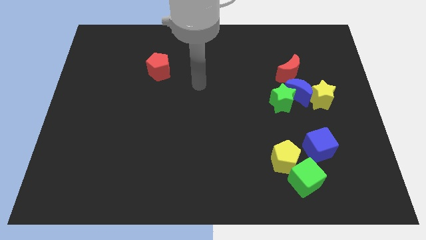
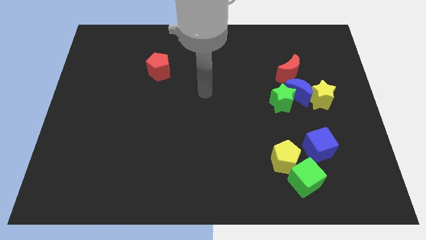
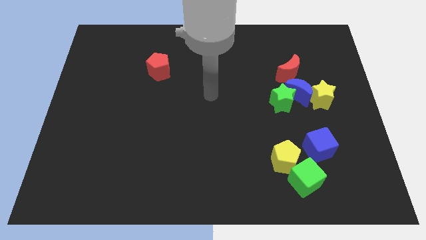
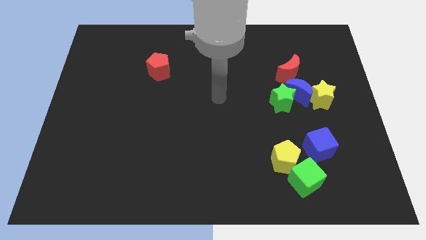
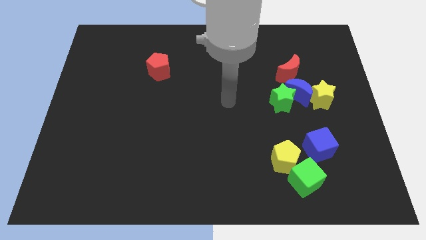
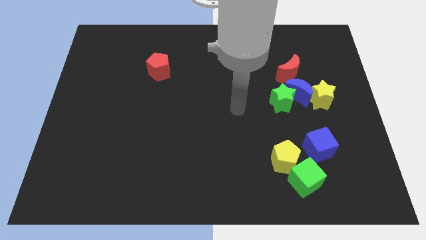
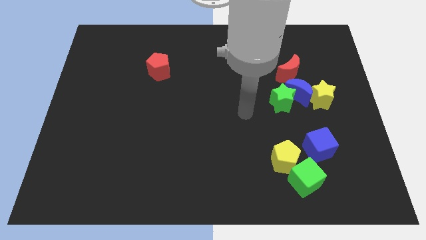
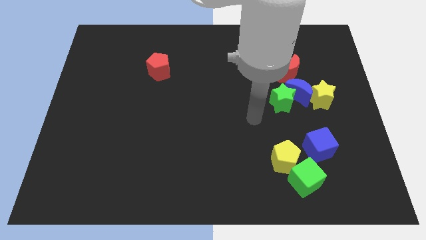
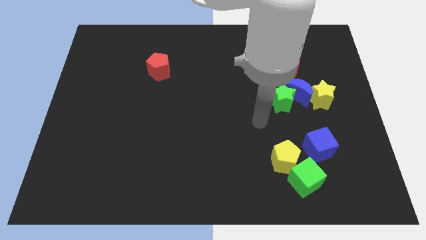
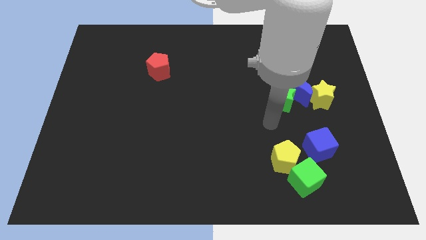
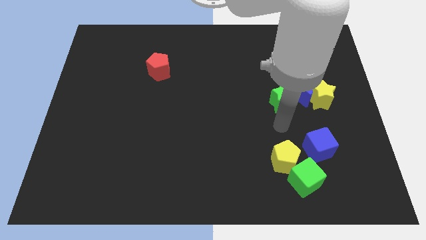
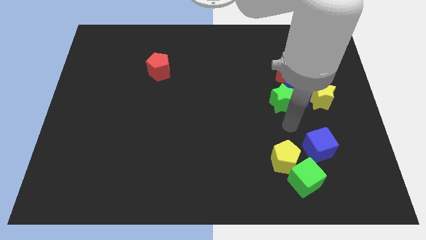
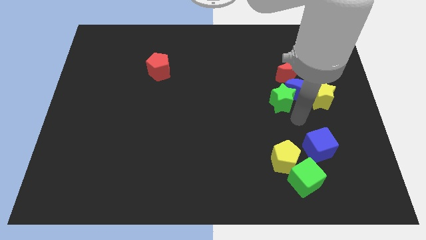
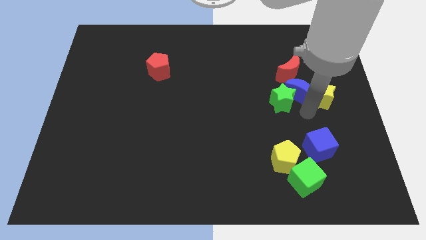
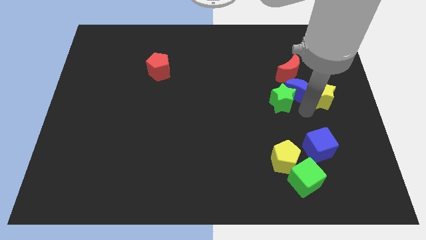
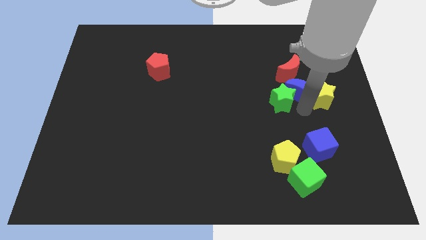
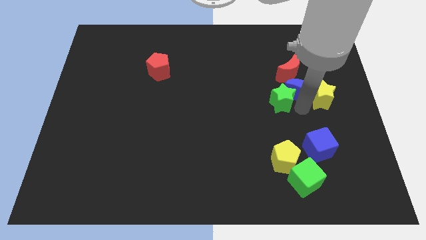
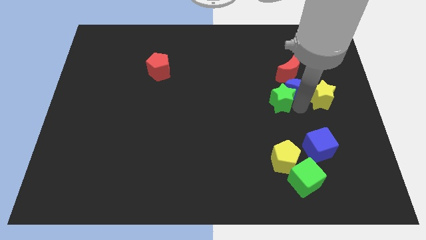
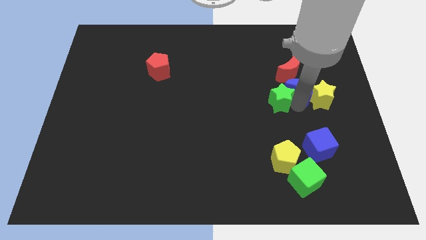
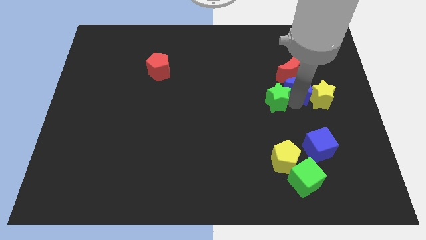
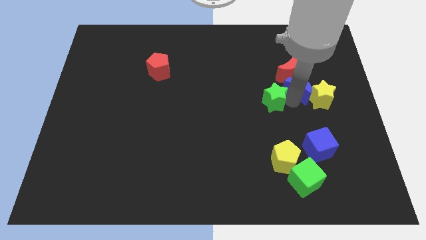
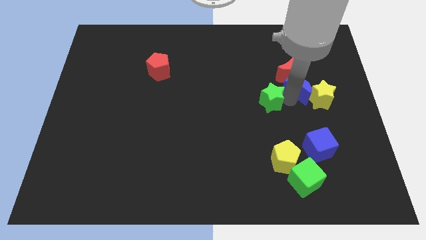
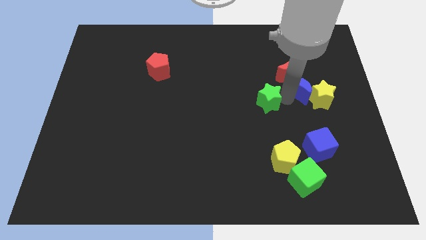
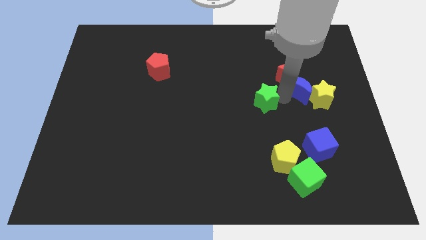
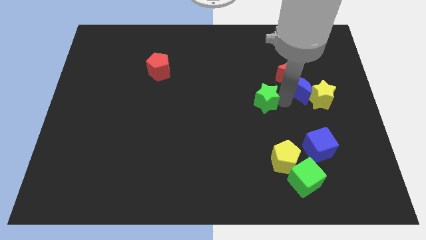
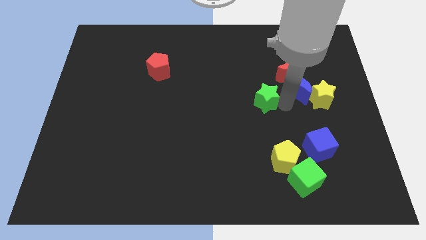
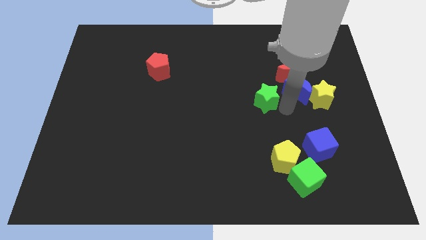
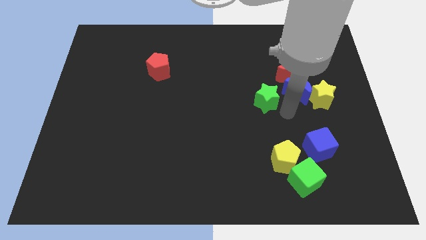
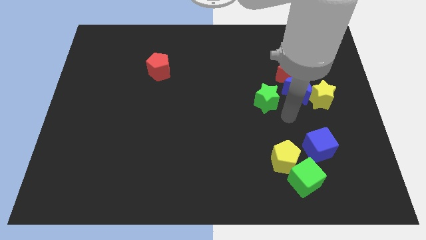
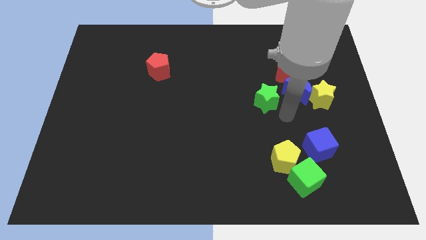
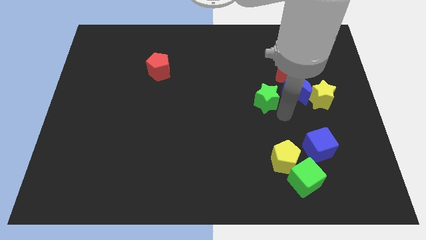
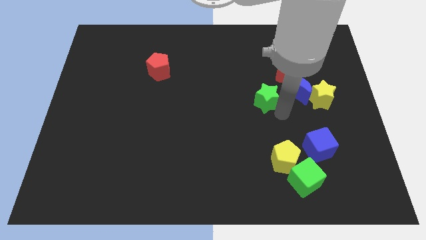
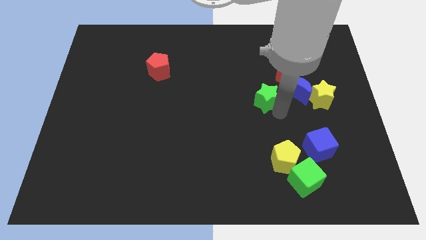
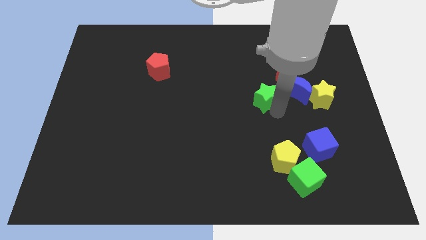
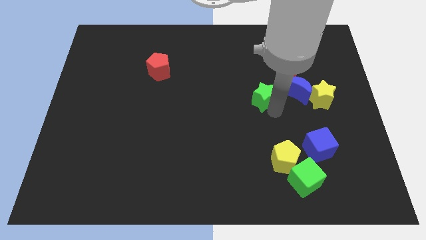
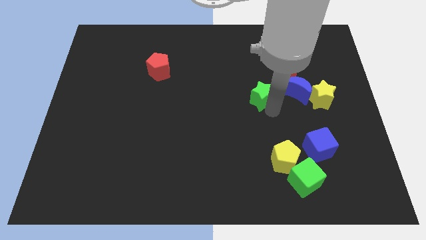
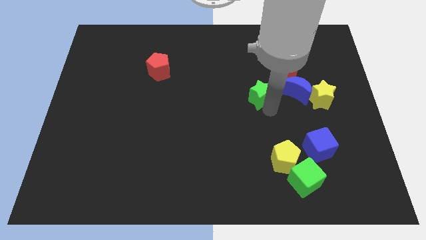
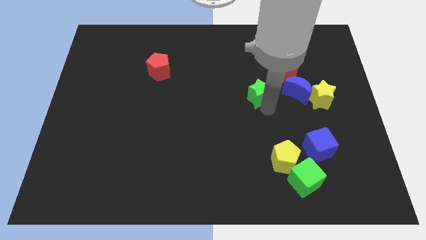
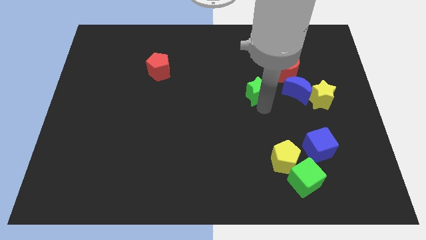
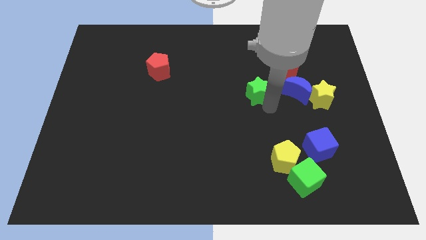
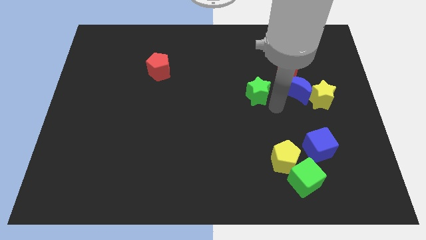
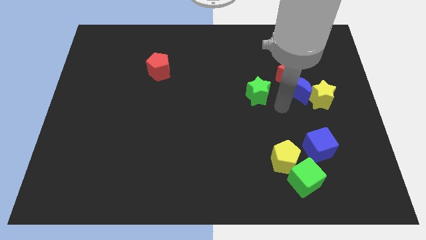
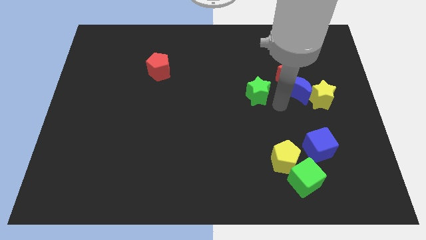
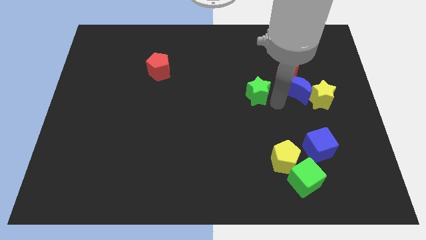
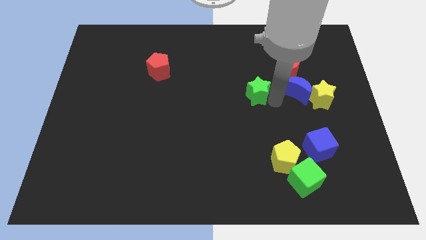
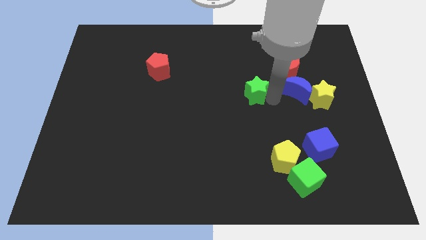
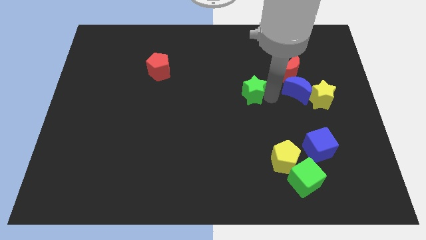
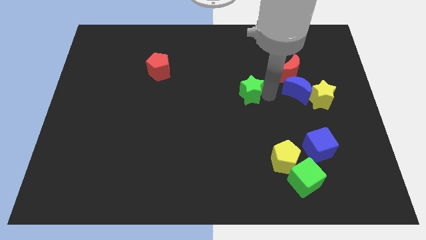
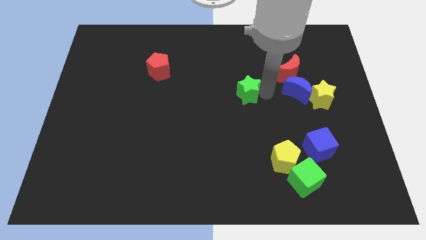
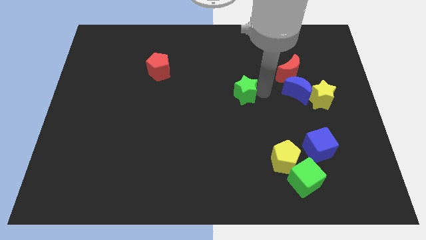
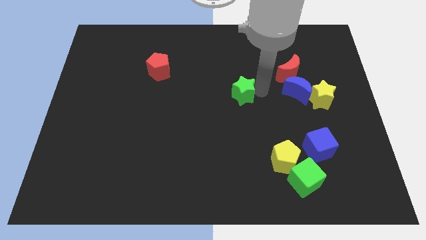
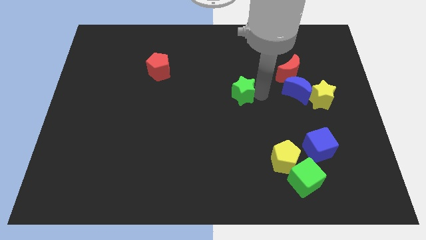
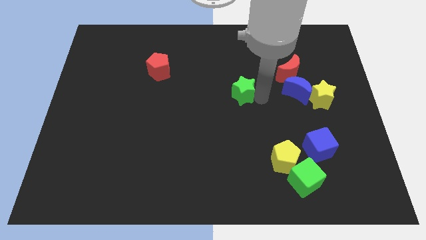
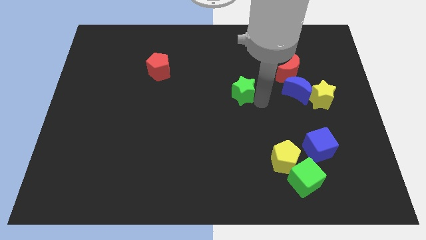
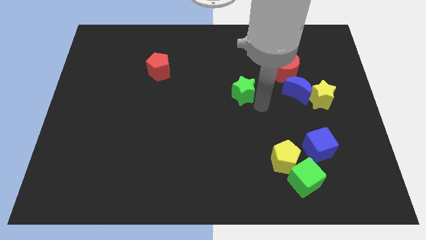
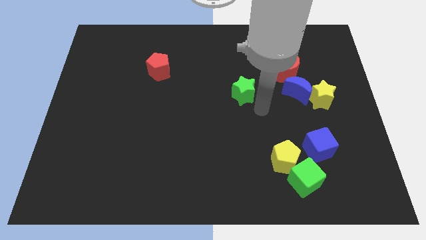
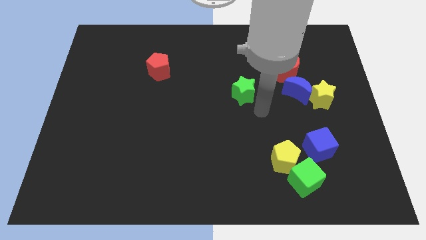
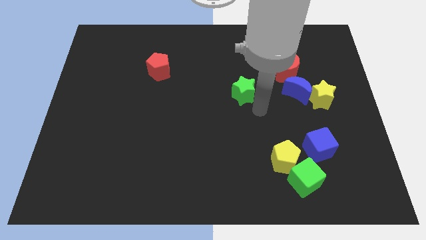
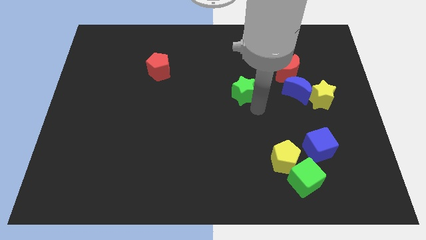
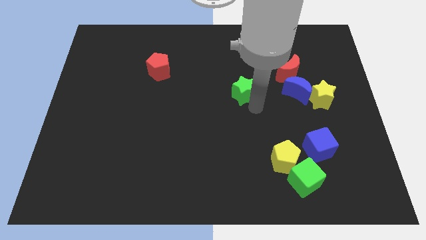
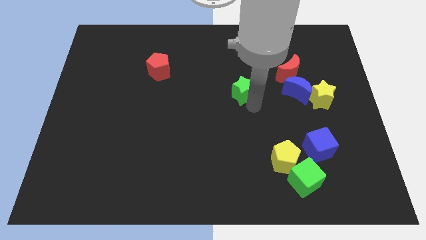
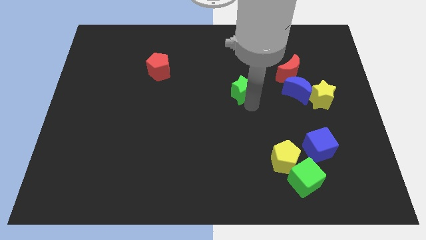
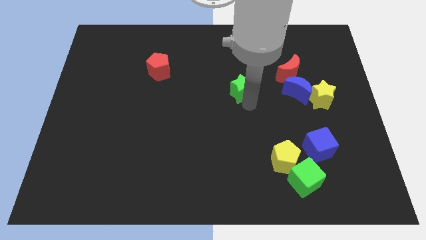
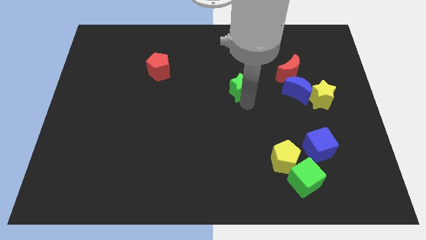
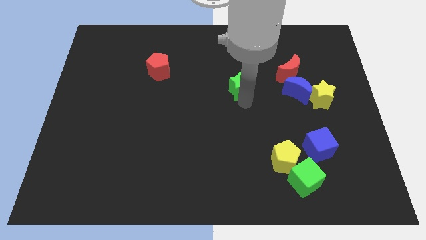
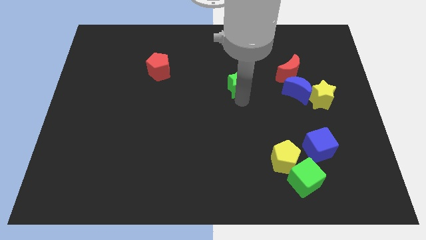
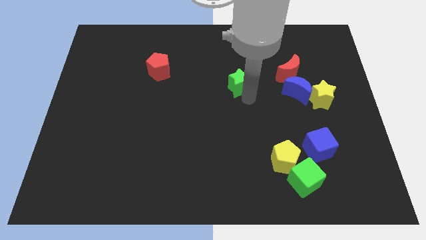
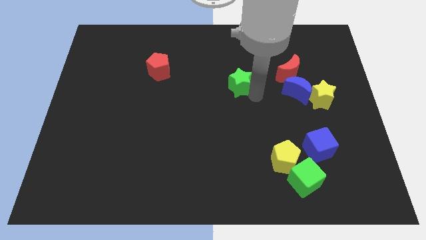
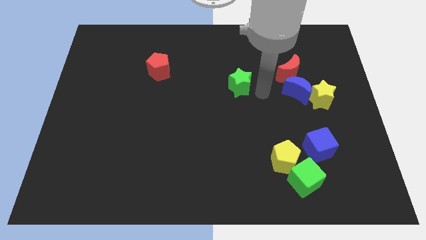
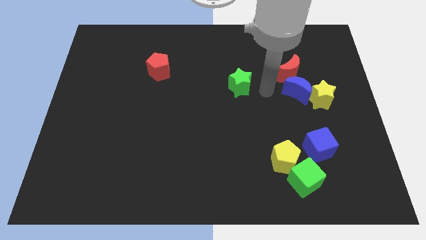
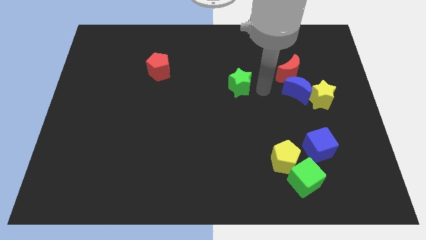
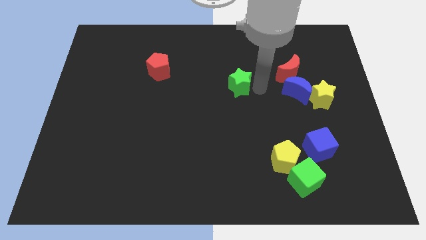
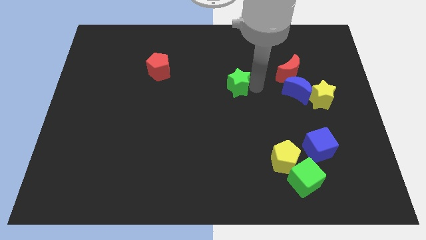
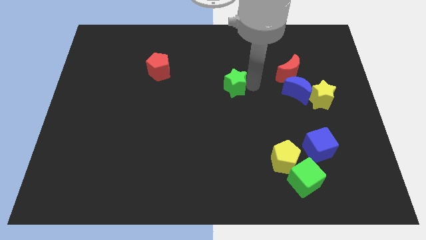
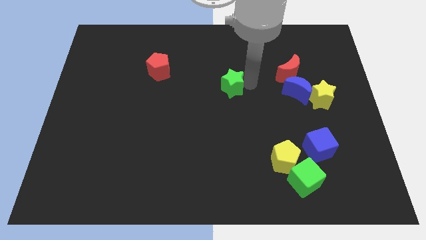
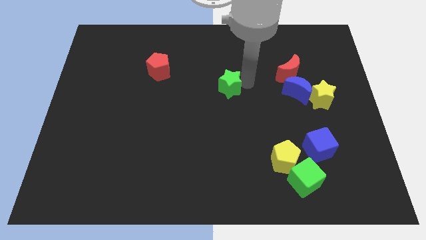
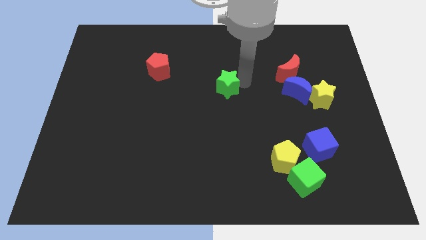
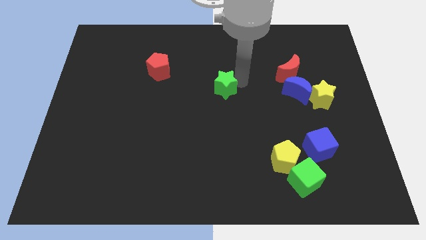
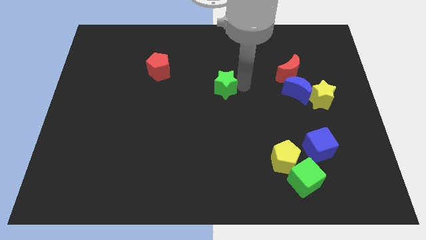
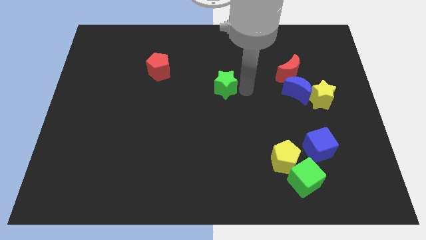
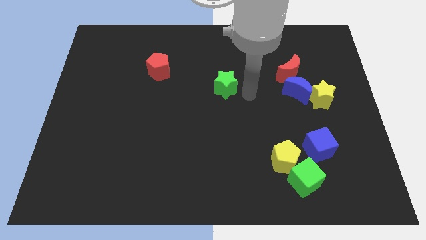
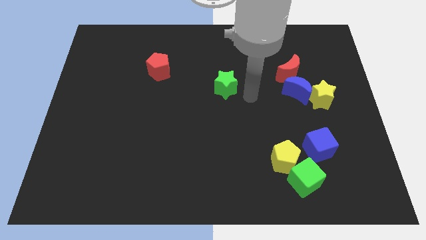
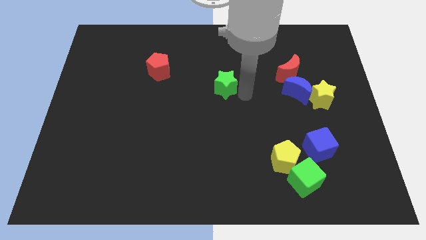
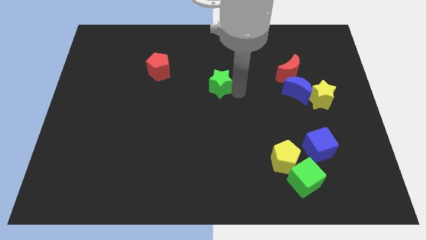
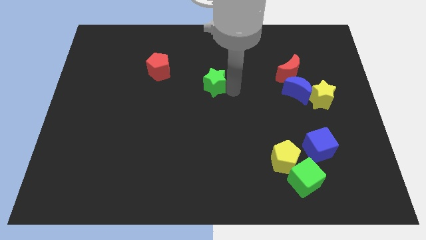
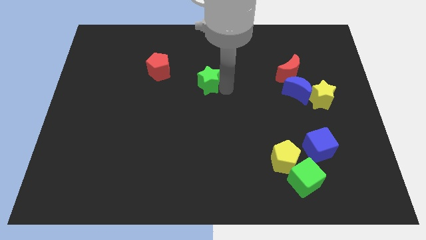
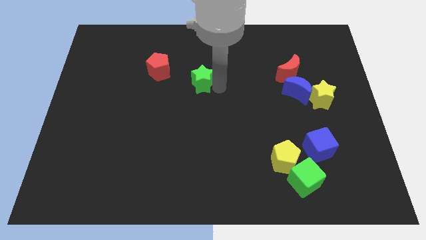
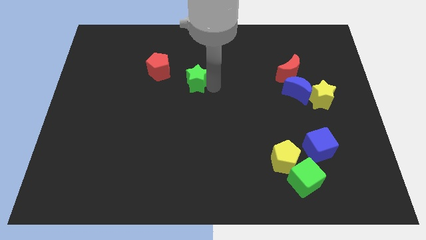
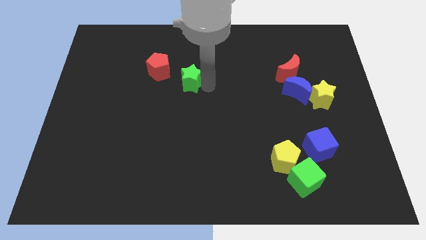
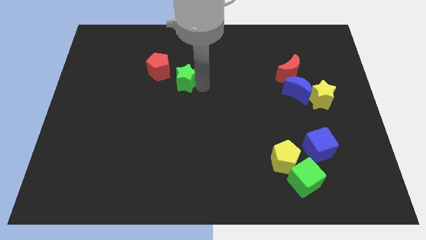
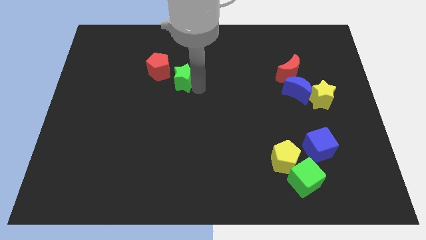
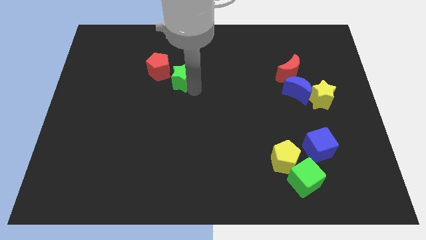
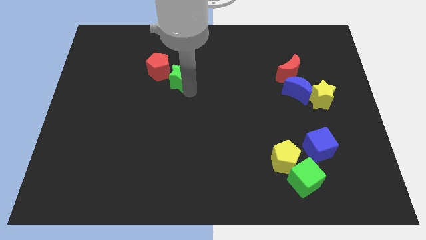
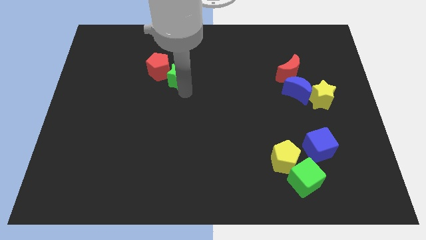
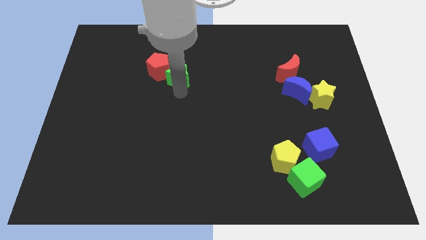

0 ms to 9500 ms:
slide the green star towards the red pentagon
